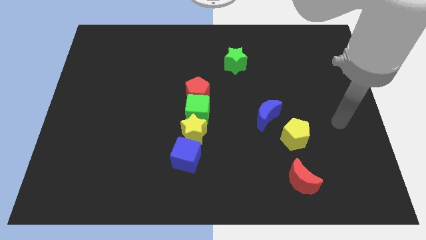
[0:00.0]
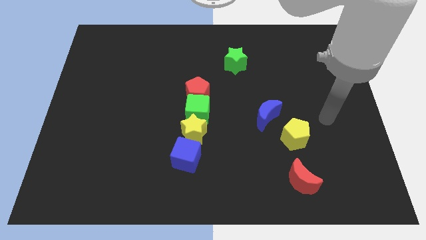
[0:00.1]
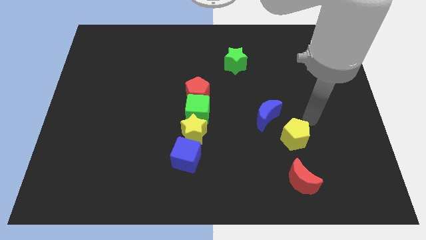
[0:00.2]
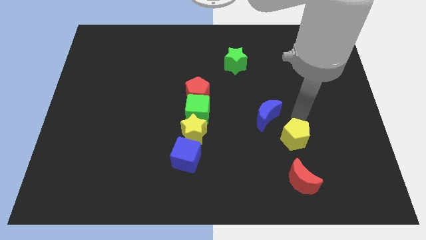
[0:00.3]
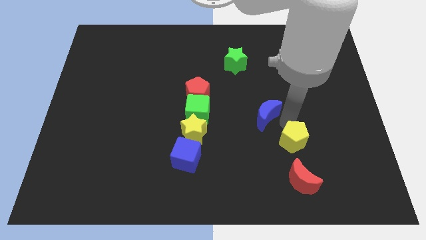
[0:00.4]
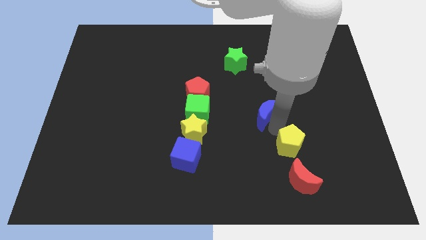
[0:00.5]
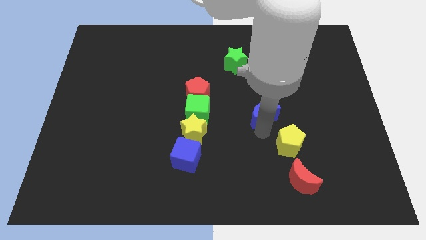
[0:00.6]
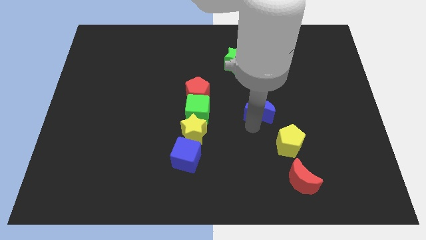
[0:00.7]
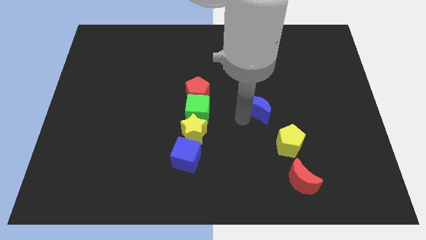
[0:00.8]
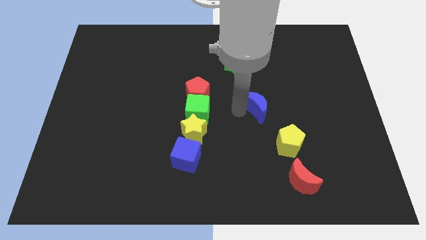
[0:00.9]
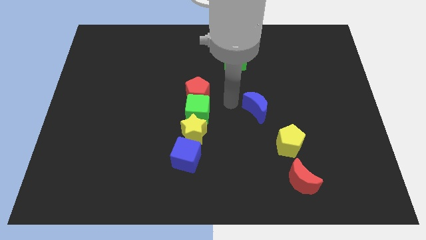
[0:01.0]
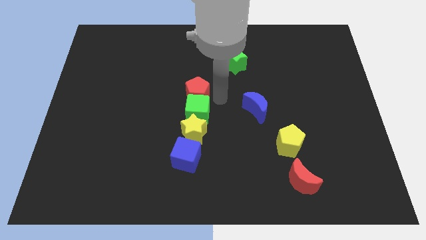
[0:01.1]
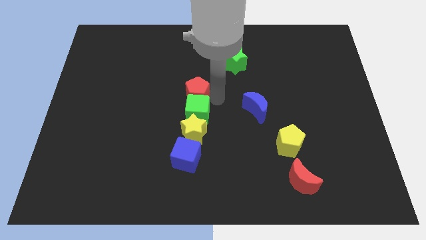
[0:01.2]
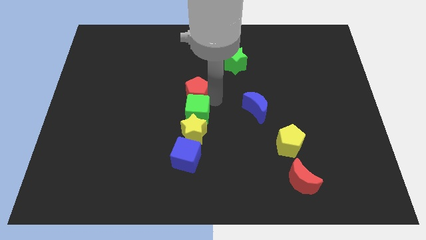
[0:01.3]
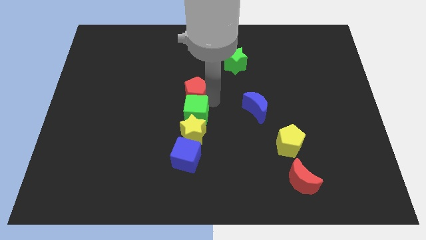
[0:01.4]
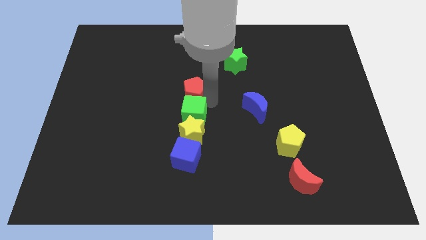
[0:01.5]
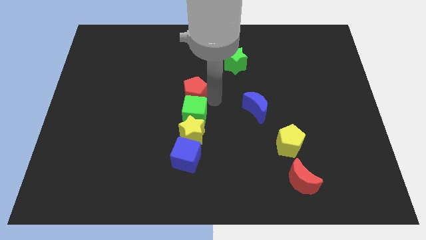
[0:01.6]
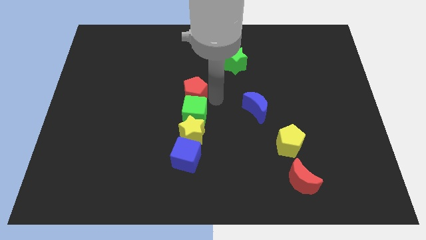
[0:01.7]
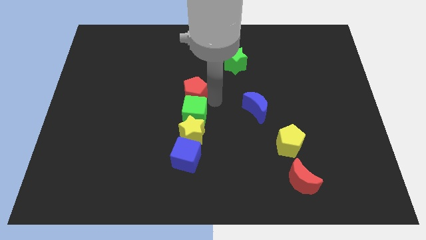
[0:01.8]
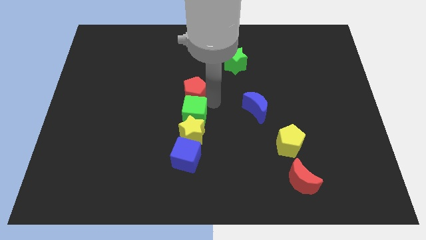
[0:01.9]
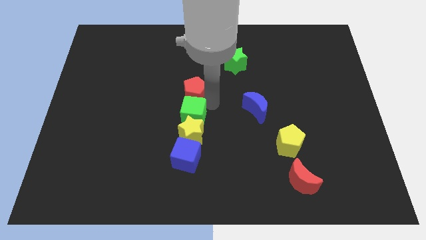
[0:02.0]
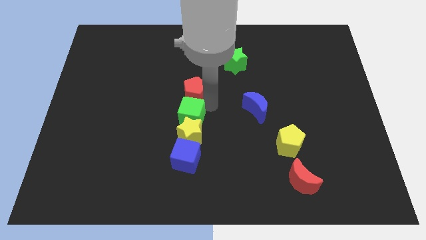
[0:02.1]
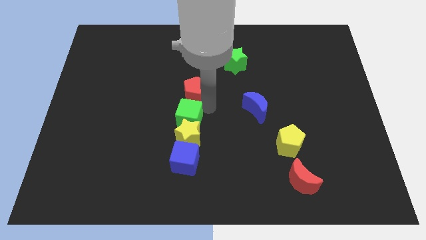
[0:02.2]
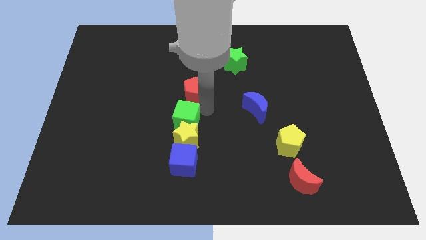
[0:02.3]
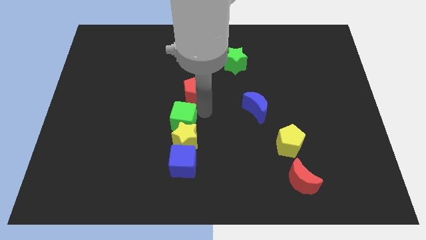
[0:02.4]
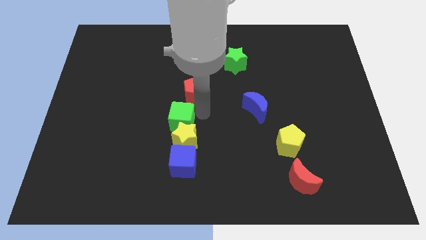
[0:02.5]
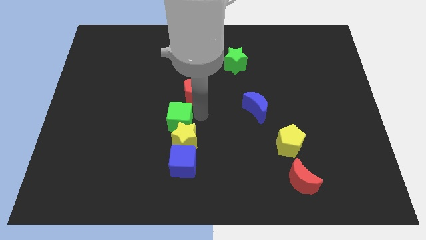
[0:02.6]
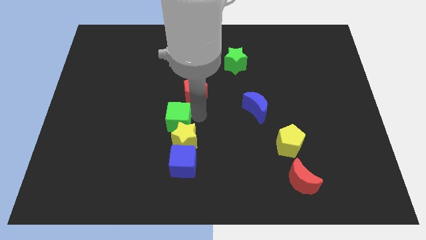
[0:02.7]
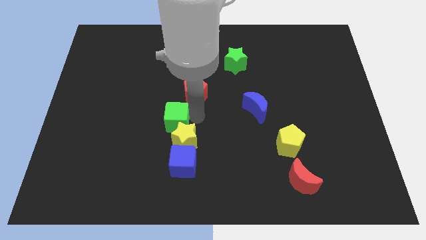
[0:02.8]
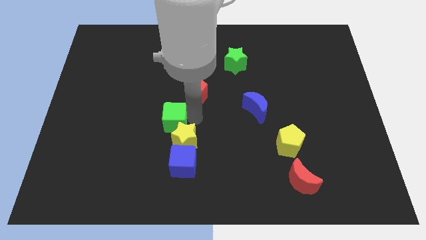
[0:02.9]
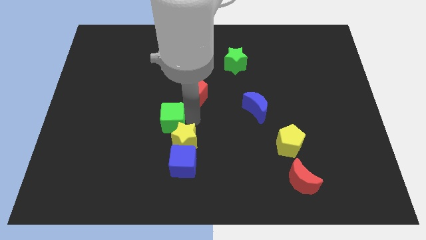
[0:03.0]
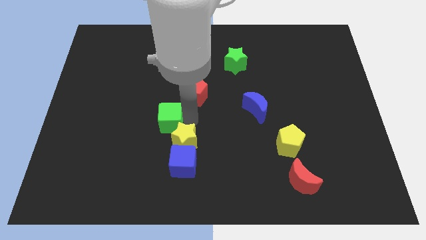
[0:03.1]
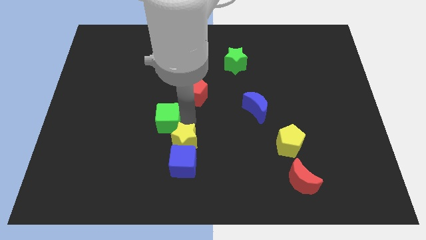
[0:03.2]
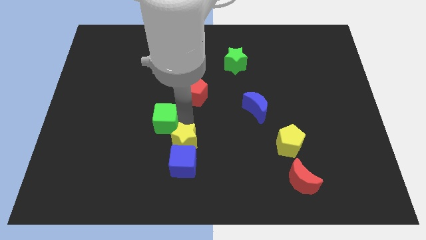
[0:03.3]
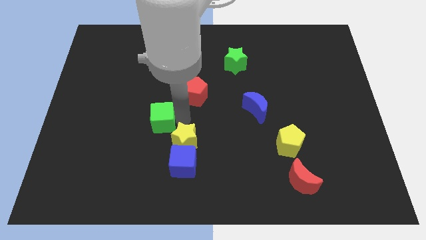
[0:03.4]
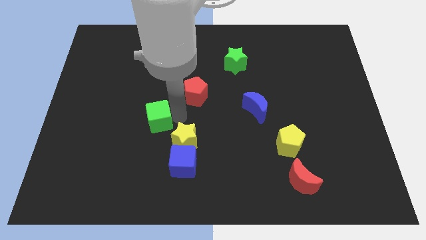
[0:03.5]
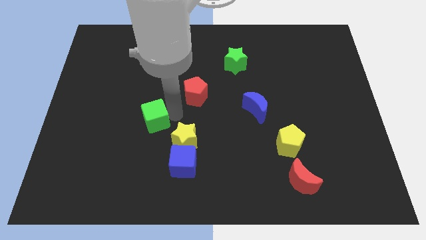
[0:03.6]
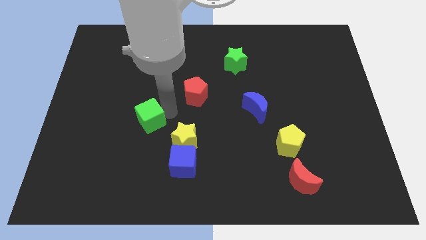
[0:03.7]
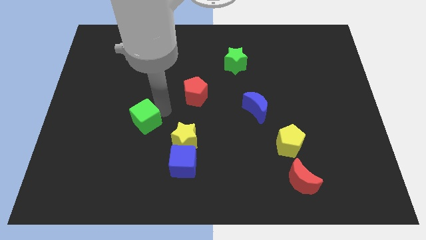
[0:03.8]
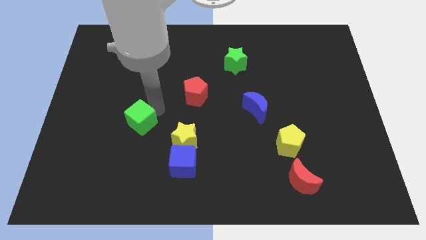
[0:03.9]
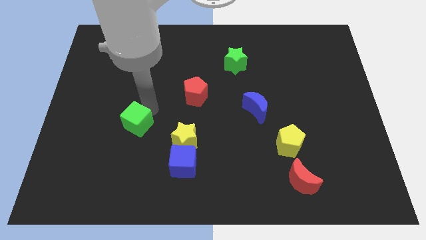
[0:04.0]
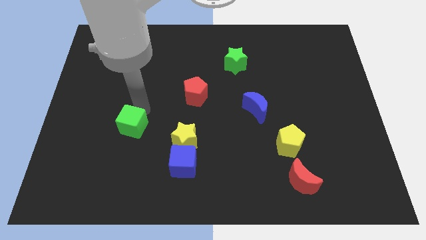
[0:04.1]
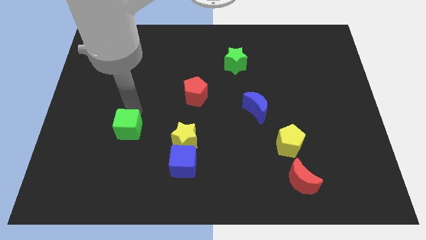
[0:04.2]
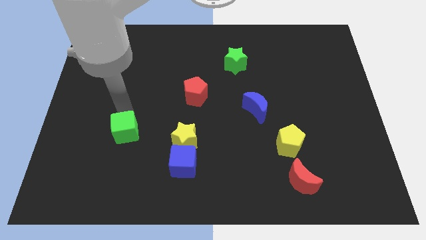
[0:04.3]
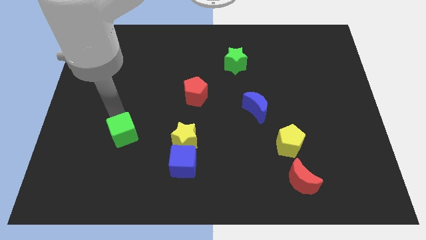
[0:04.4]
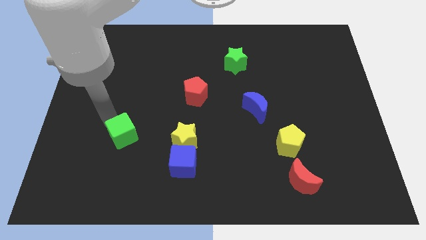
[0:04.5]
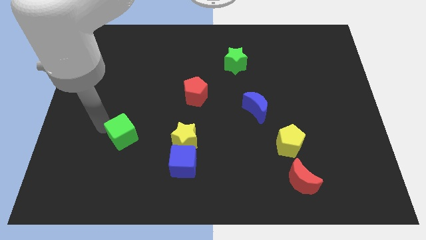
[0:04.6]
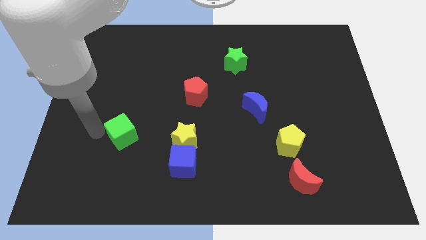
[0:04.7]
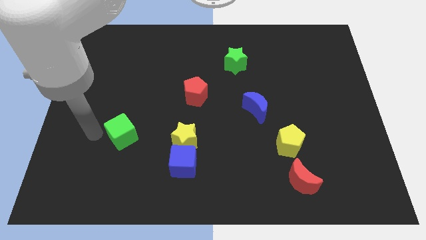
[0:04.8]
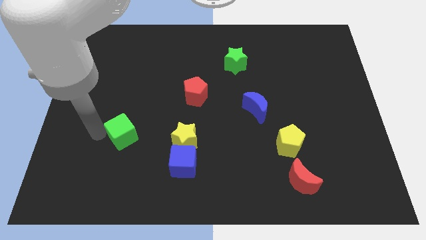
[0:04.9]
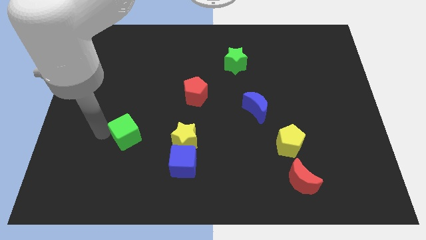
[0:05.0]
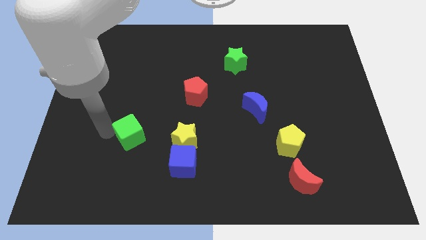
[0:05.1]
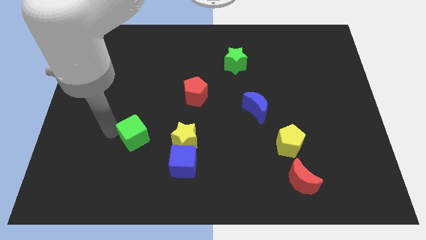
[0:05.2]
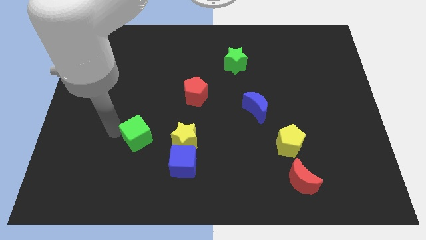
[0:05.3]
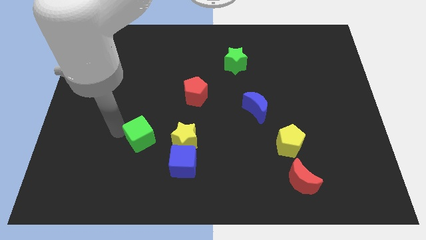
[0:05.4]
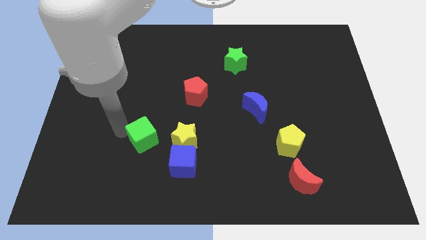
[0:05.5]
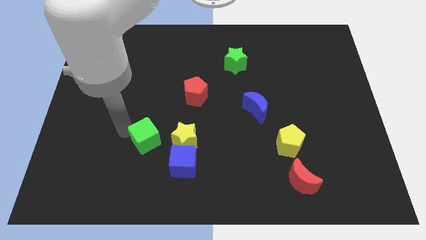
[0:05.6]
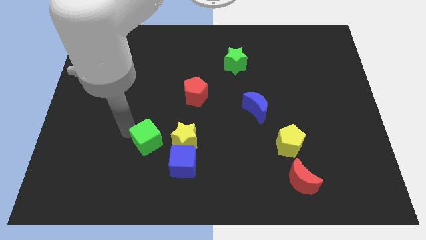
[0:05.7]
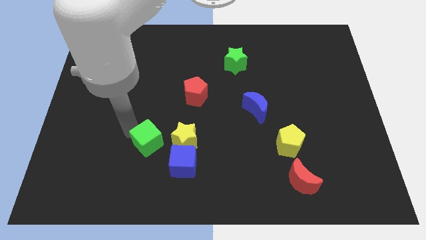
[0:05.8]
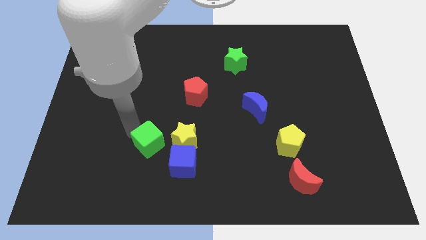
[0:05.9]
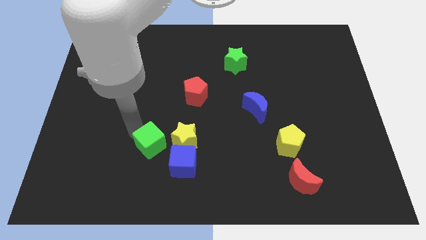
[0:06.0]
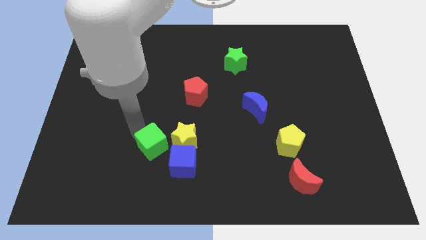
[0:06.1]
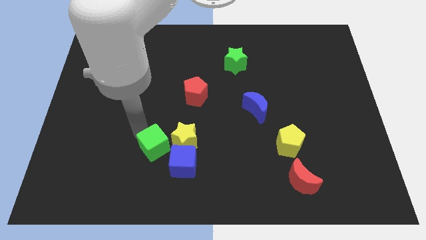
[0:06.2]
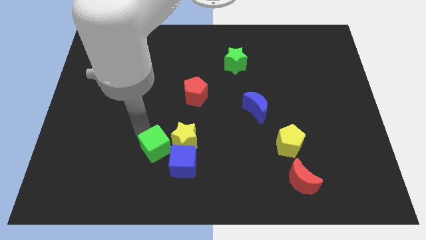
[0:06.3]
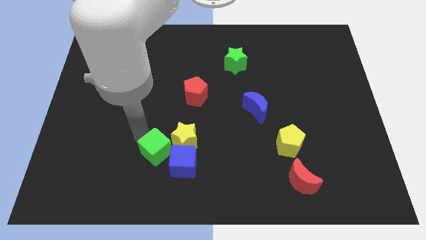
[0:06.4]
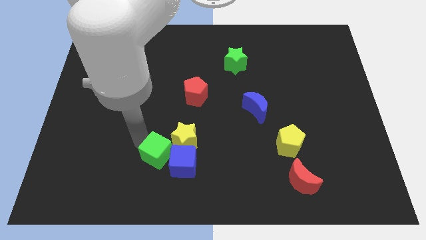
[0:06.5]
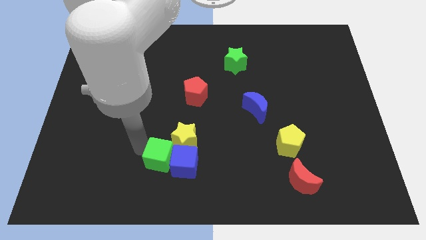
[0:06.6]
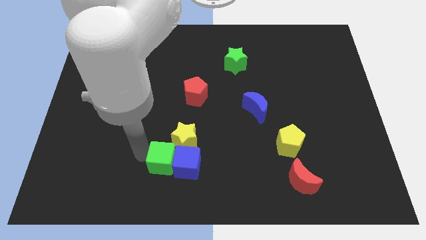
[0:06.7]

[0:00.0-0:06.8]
move the green cube to the bottom side of the yellow star

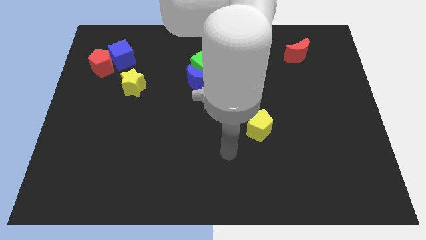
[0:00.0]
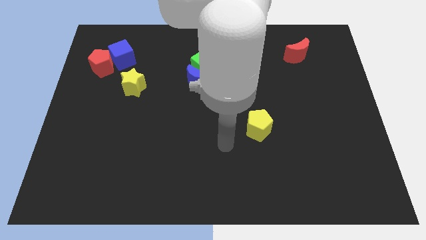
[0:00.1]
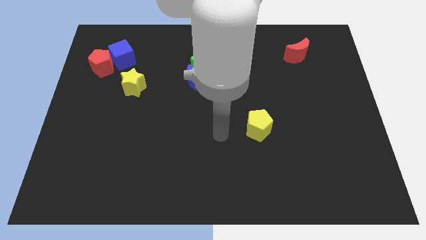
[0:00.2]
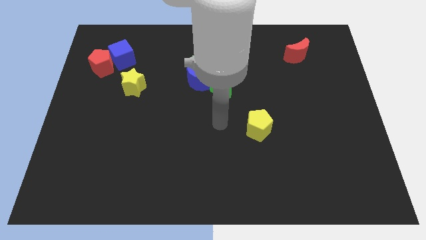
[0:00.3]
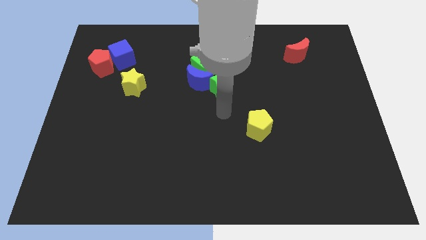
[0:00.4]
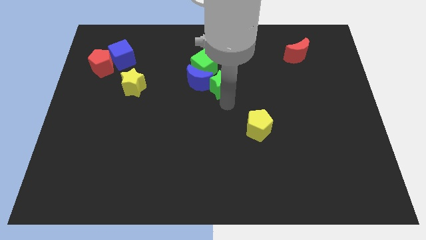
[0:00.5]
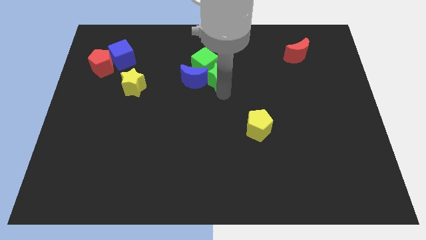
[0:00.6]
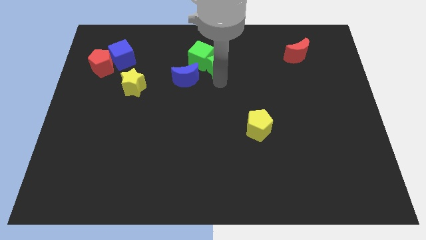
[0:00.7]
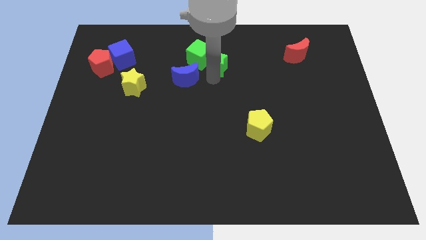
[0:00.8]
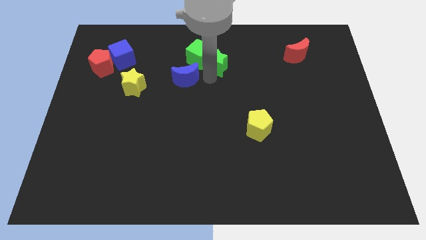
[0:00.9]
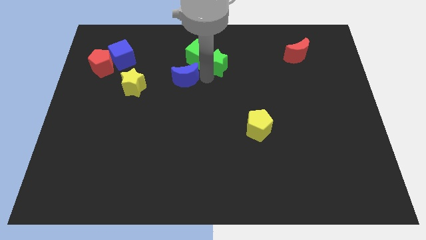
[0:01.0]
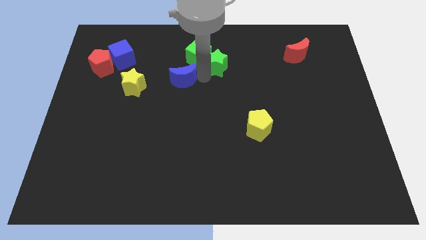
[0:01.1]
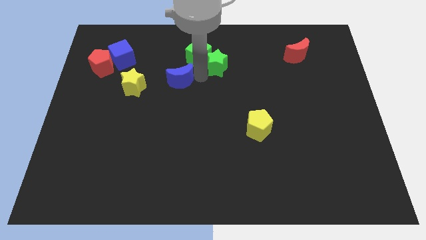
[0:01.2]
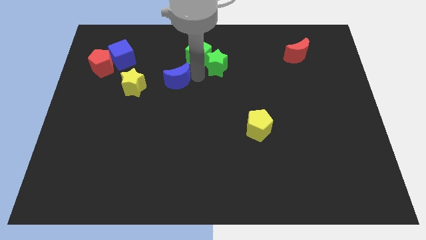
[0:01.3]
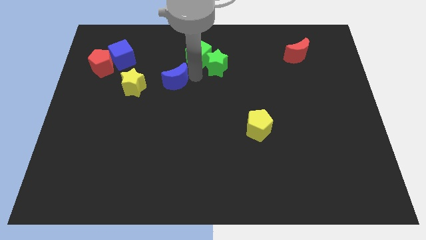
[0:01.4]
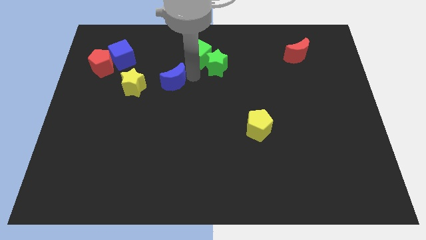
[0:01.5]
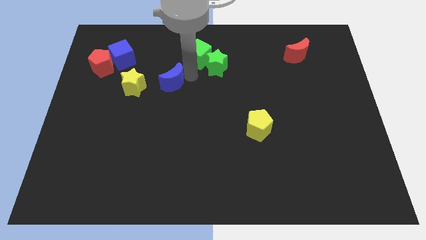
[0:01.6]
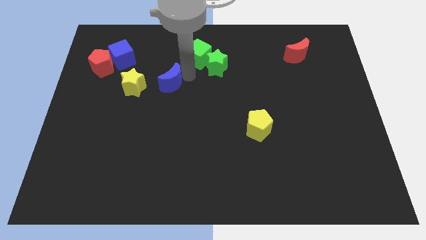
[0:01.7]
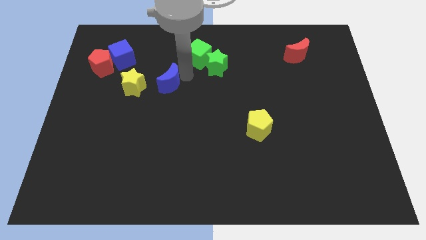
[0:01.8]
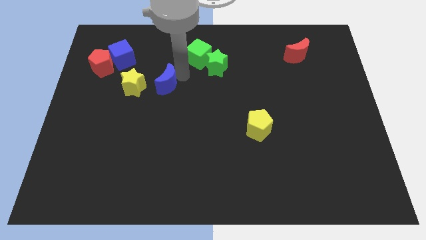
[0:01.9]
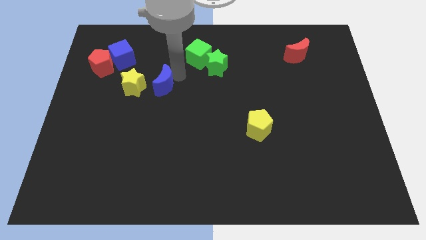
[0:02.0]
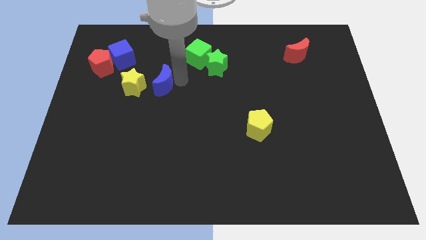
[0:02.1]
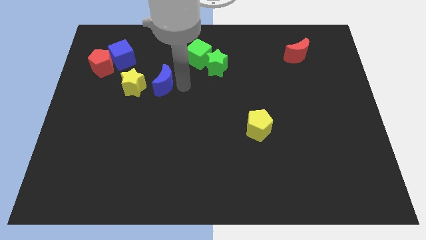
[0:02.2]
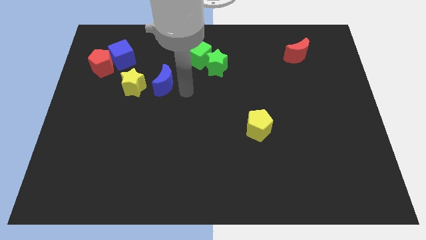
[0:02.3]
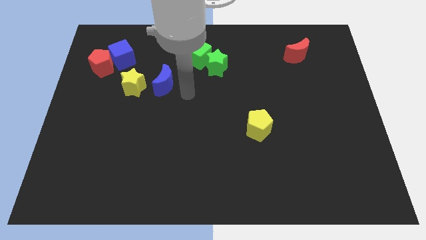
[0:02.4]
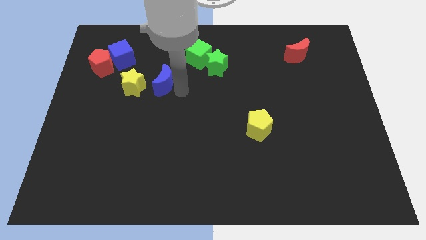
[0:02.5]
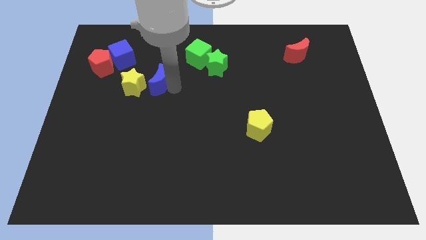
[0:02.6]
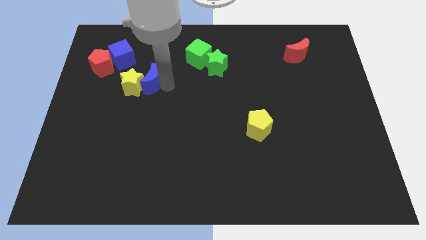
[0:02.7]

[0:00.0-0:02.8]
put the blue moon to the bottom right of the blue cube
